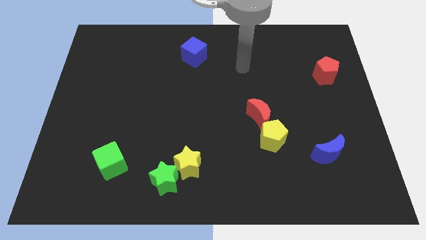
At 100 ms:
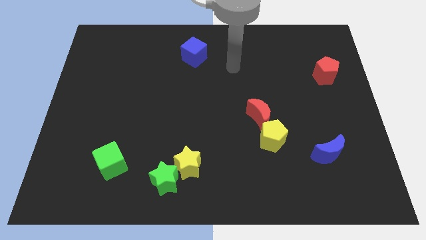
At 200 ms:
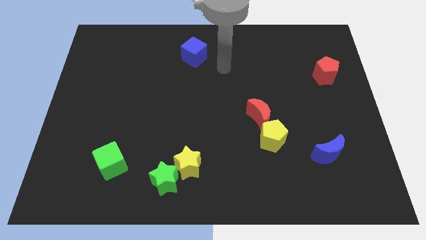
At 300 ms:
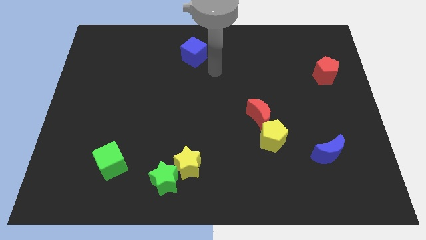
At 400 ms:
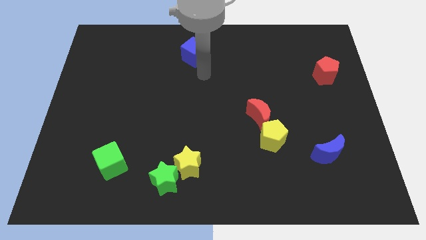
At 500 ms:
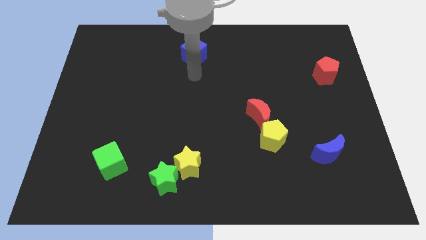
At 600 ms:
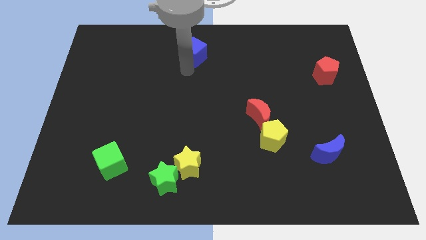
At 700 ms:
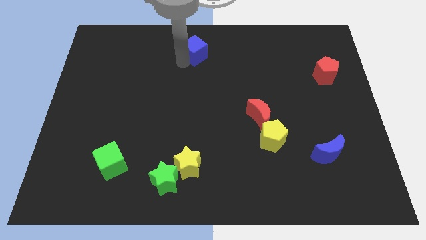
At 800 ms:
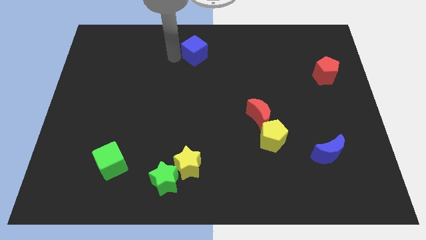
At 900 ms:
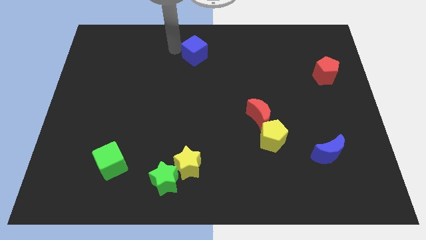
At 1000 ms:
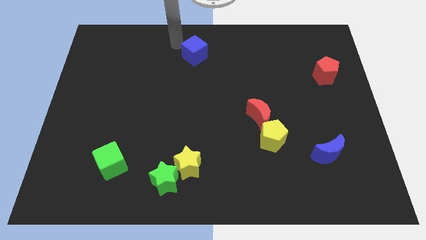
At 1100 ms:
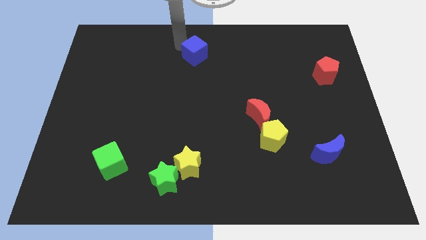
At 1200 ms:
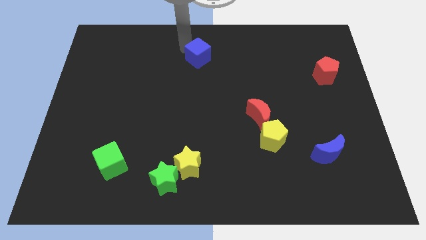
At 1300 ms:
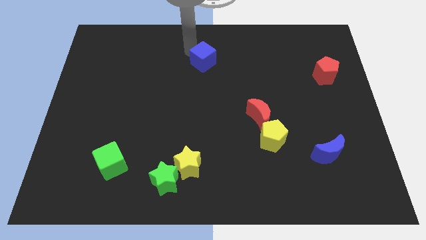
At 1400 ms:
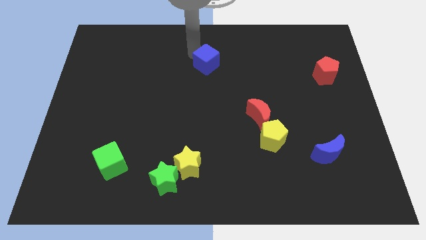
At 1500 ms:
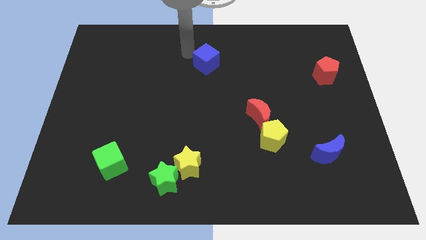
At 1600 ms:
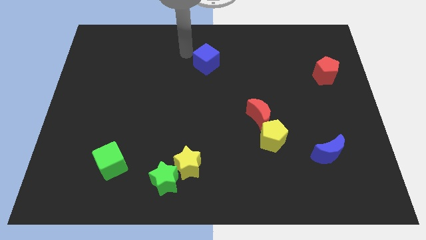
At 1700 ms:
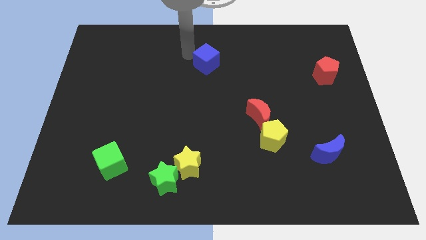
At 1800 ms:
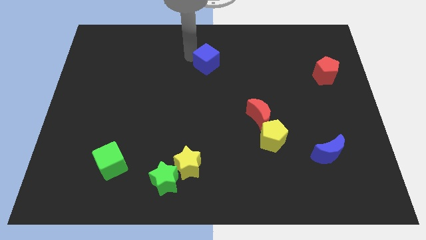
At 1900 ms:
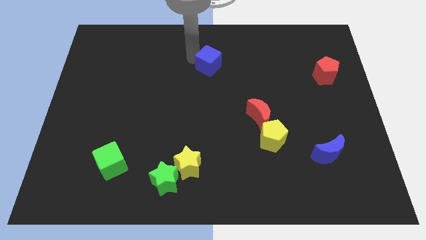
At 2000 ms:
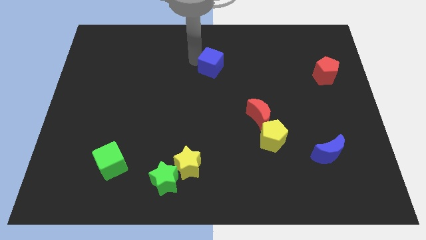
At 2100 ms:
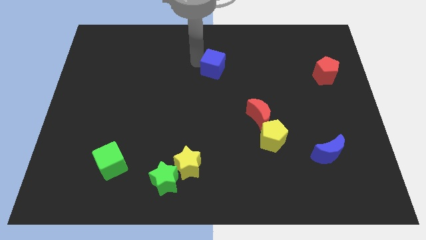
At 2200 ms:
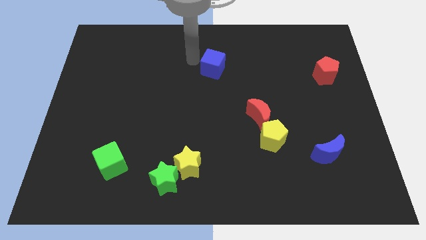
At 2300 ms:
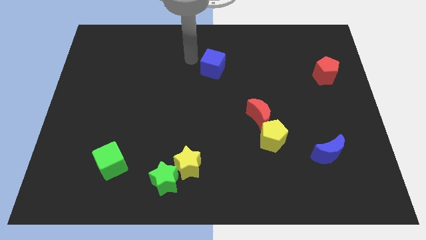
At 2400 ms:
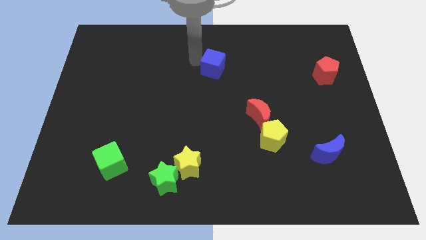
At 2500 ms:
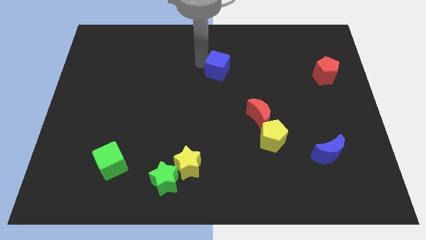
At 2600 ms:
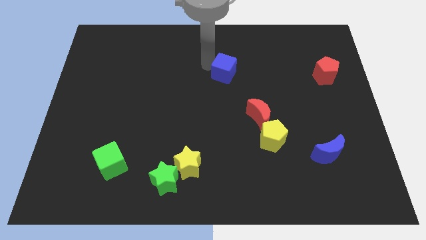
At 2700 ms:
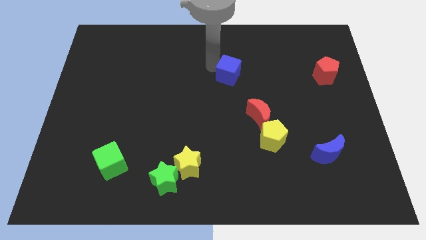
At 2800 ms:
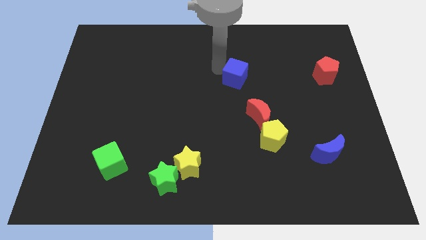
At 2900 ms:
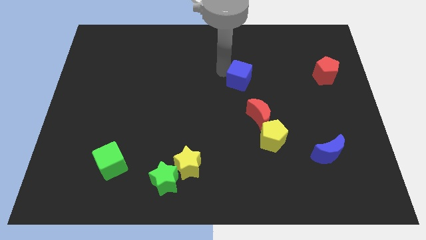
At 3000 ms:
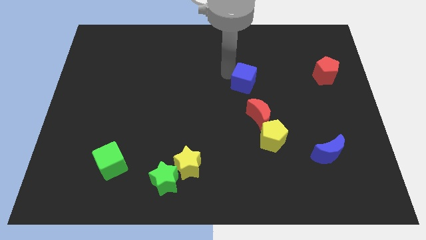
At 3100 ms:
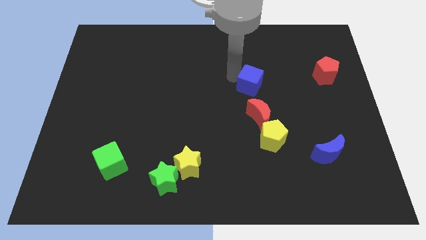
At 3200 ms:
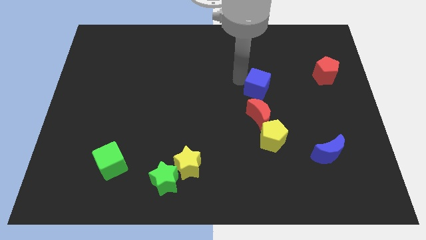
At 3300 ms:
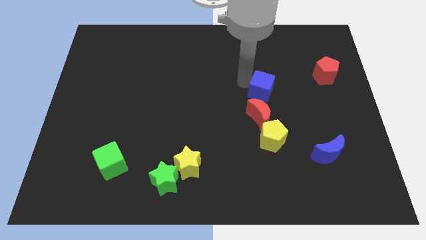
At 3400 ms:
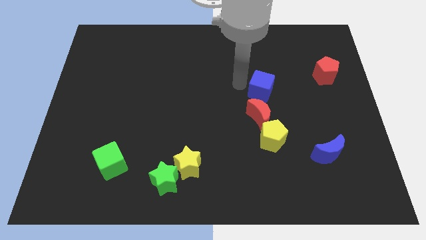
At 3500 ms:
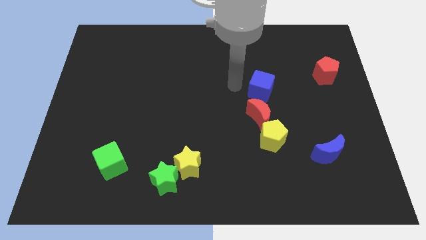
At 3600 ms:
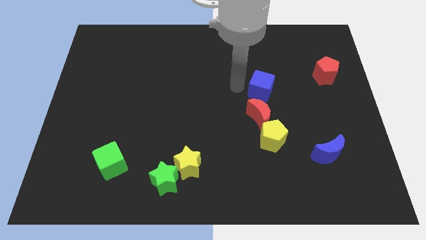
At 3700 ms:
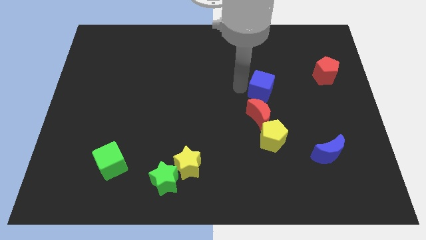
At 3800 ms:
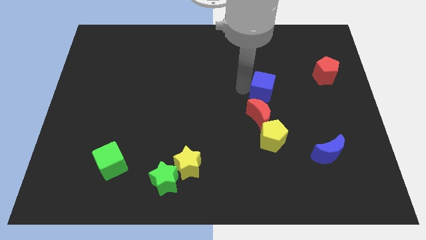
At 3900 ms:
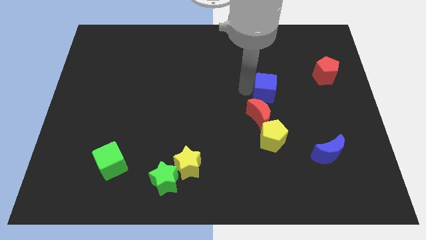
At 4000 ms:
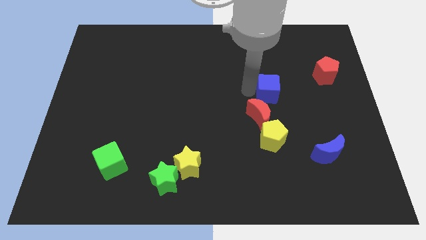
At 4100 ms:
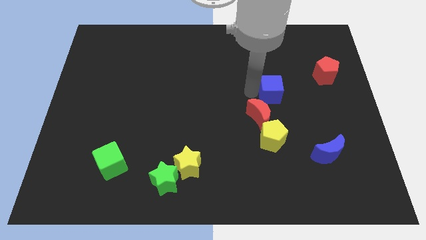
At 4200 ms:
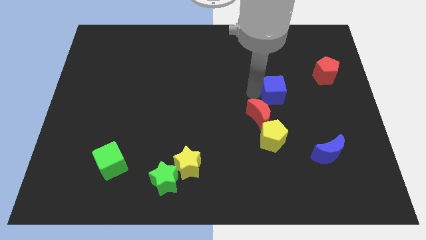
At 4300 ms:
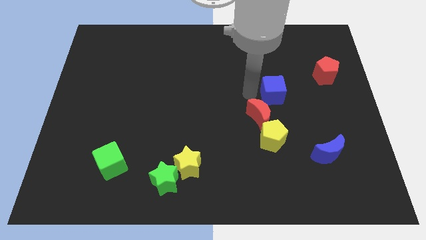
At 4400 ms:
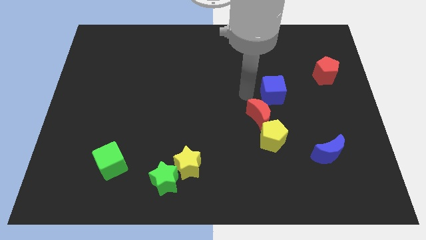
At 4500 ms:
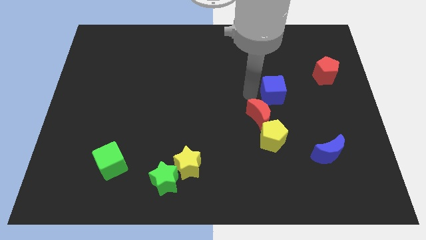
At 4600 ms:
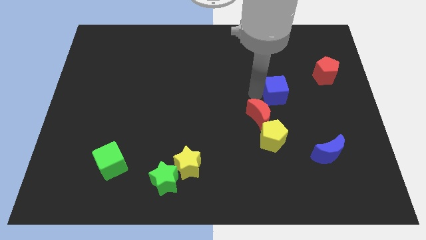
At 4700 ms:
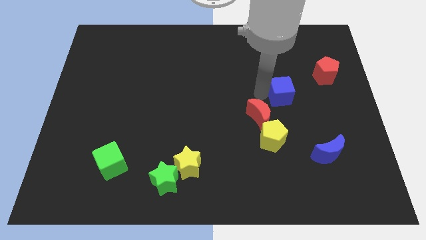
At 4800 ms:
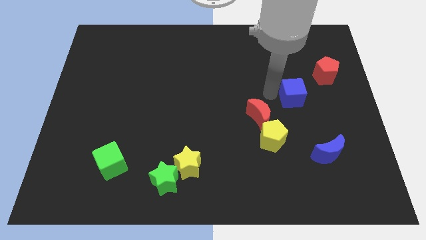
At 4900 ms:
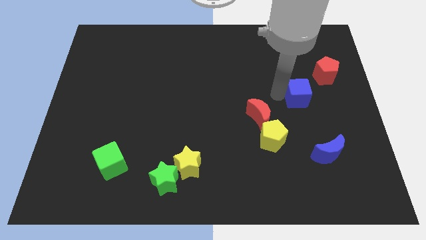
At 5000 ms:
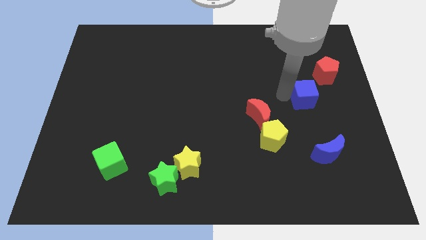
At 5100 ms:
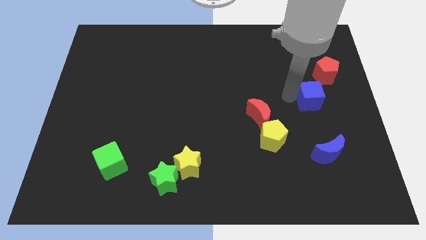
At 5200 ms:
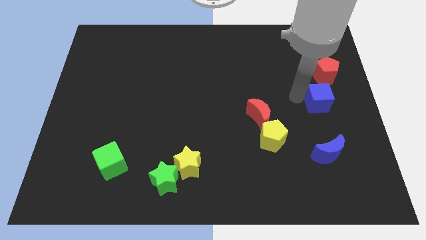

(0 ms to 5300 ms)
put the blue cube to the right side

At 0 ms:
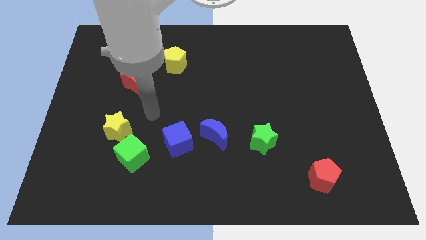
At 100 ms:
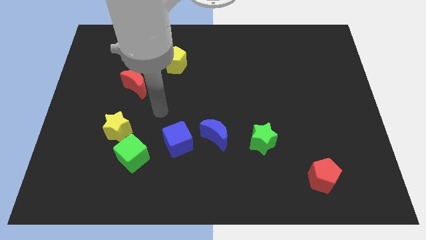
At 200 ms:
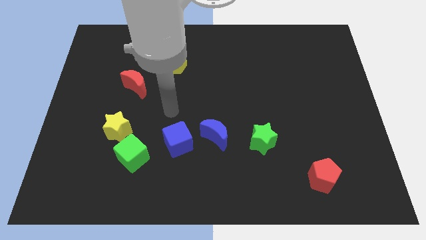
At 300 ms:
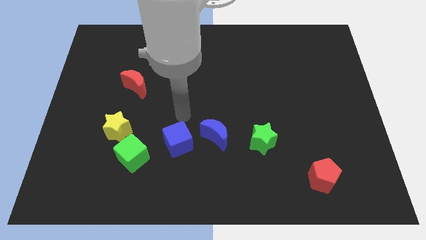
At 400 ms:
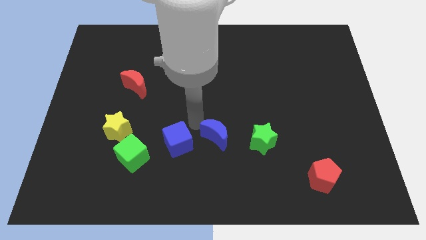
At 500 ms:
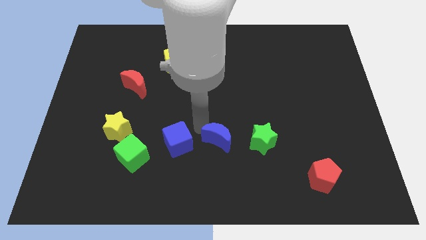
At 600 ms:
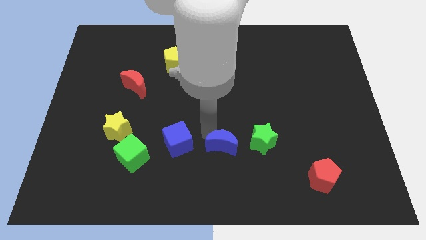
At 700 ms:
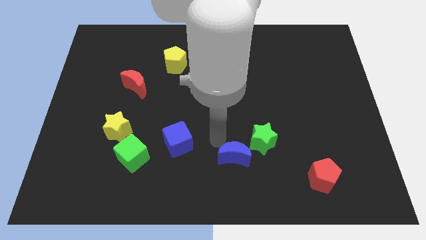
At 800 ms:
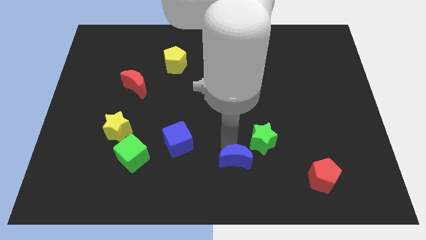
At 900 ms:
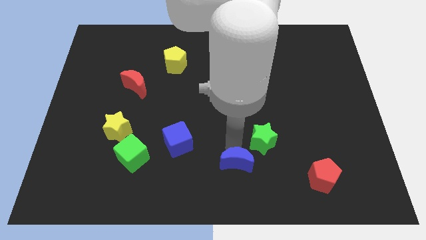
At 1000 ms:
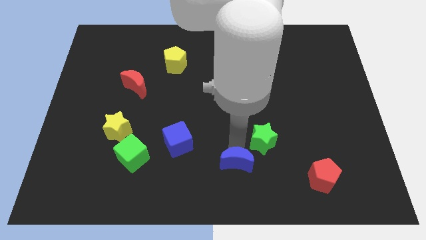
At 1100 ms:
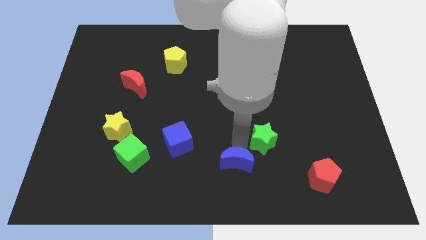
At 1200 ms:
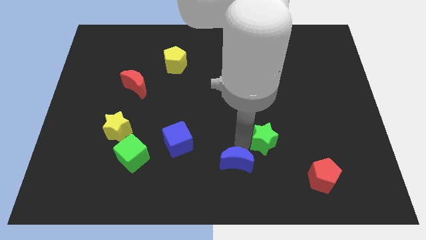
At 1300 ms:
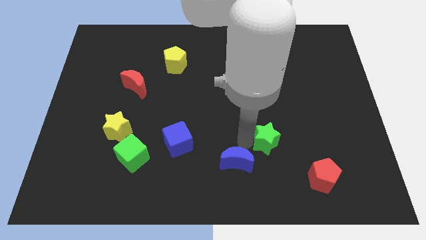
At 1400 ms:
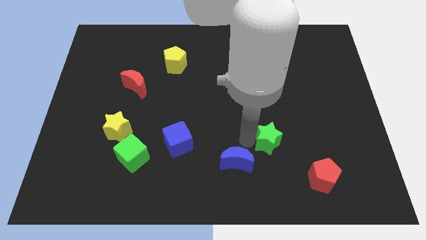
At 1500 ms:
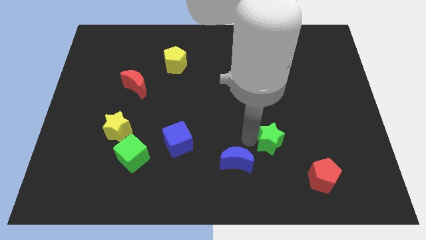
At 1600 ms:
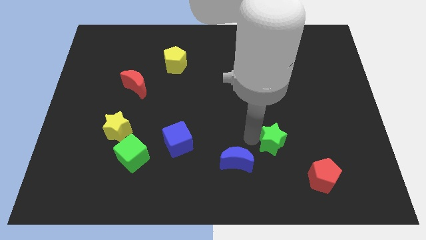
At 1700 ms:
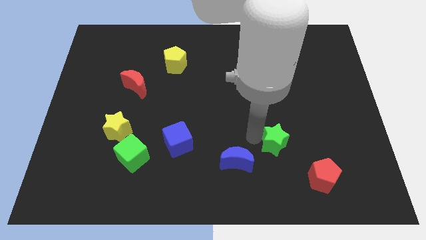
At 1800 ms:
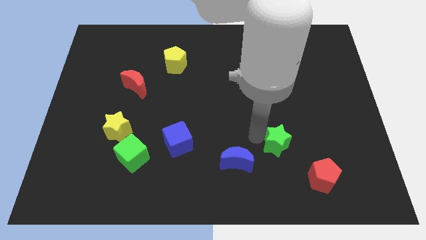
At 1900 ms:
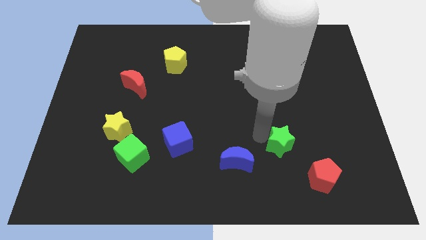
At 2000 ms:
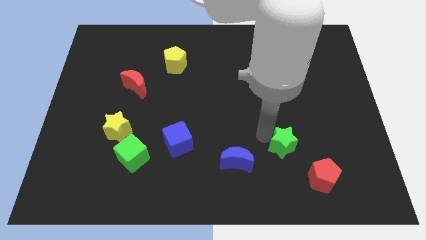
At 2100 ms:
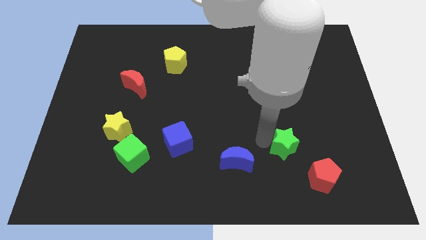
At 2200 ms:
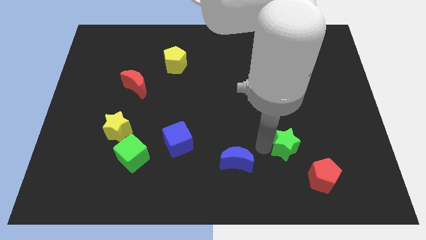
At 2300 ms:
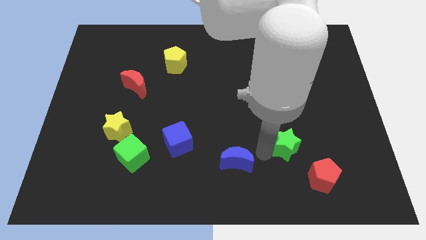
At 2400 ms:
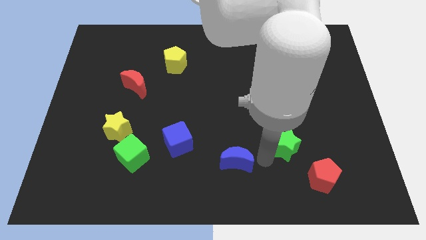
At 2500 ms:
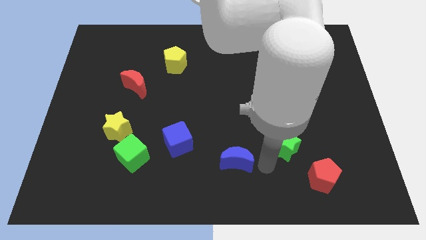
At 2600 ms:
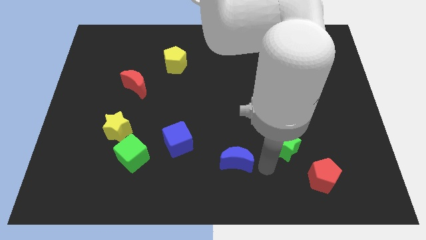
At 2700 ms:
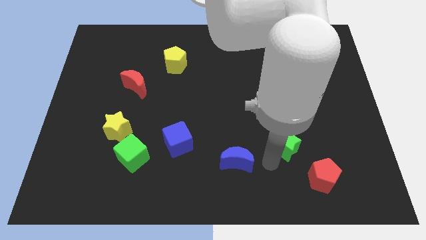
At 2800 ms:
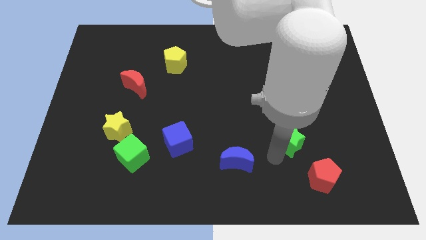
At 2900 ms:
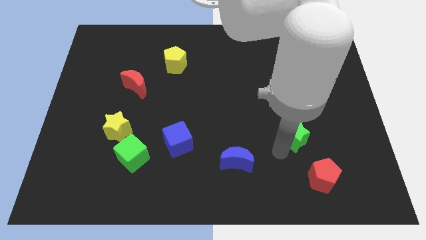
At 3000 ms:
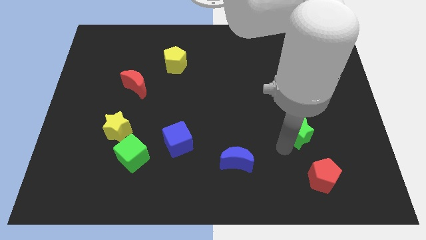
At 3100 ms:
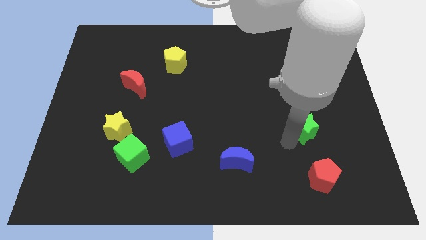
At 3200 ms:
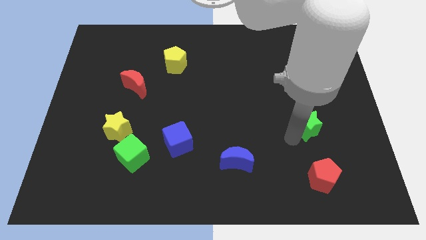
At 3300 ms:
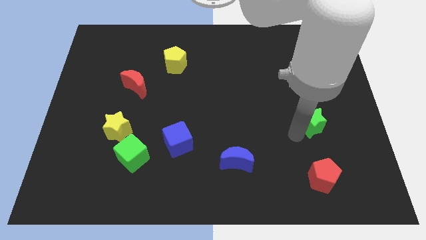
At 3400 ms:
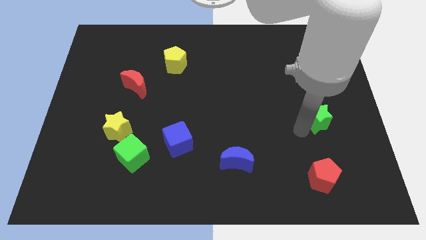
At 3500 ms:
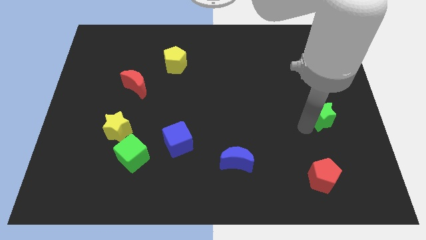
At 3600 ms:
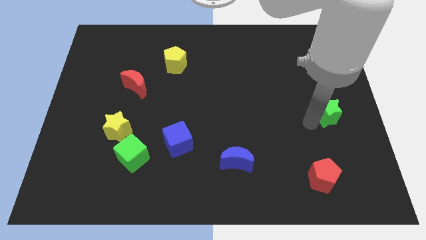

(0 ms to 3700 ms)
push the green star to the right side of the board
